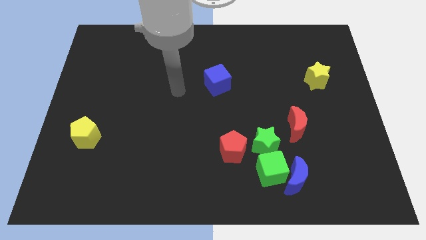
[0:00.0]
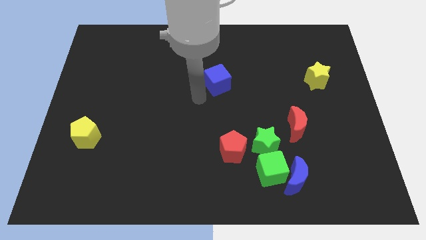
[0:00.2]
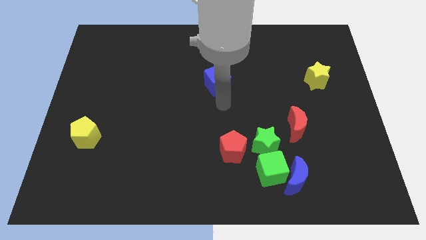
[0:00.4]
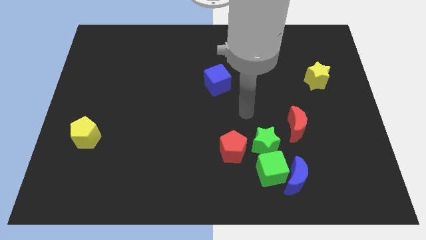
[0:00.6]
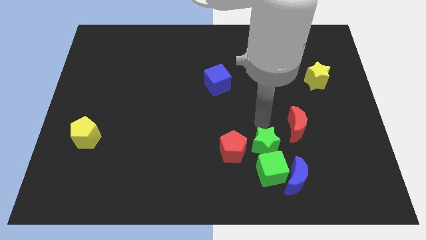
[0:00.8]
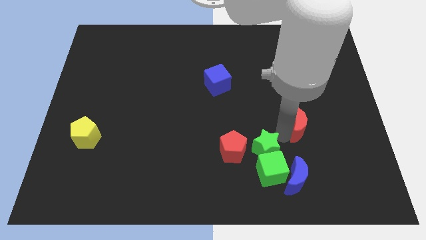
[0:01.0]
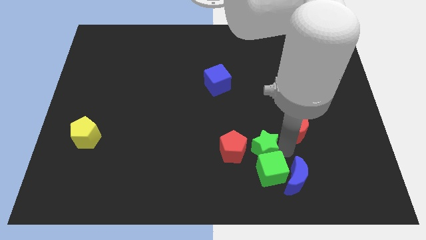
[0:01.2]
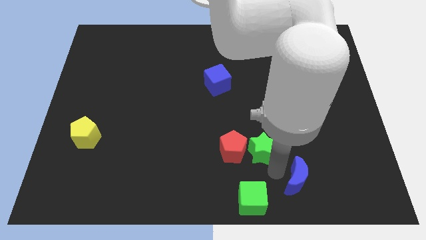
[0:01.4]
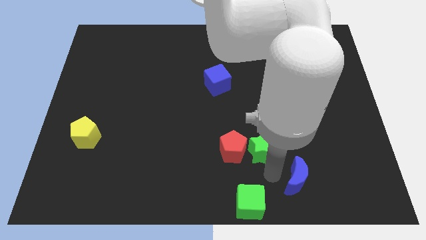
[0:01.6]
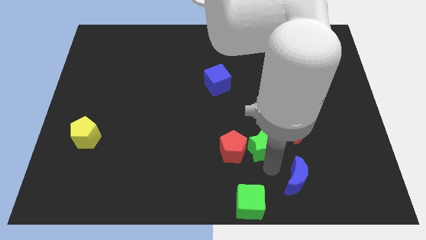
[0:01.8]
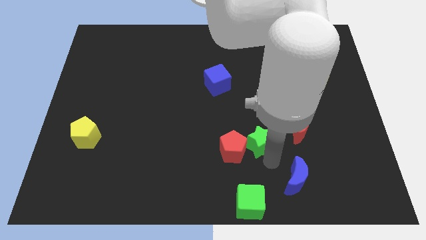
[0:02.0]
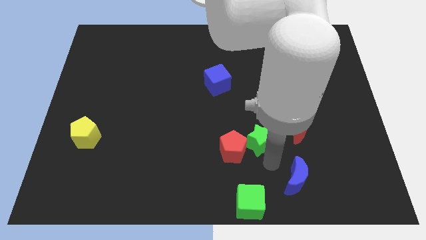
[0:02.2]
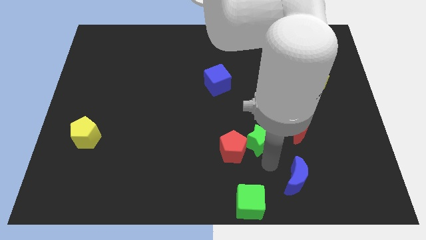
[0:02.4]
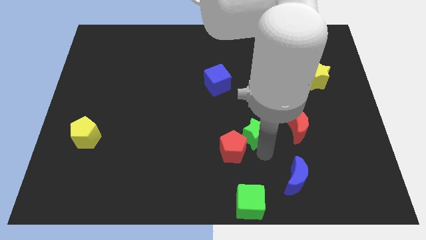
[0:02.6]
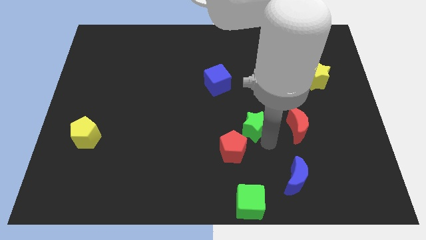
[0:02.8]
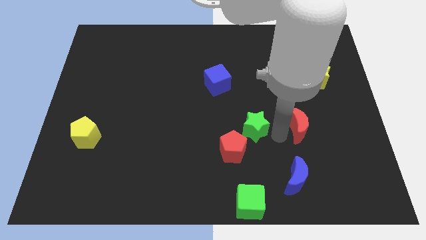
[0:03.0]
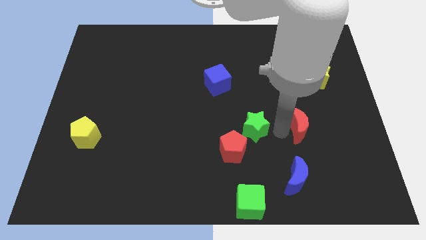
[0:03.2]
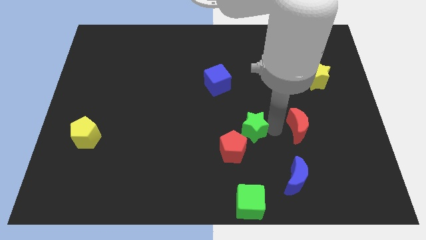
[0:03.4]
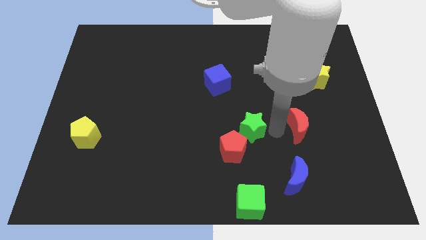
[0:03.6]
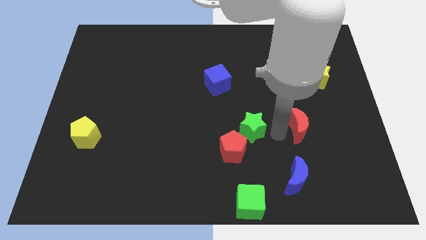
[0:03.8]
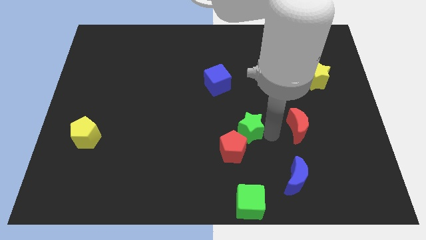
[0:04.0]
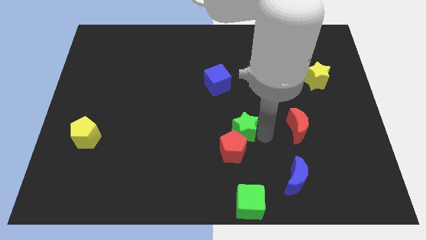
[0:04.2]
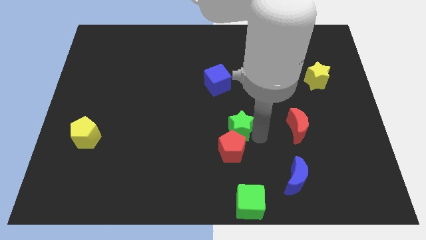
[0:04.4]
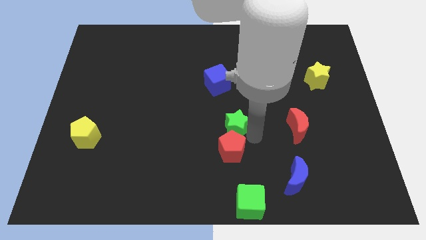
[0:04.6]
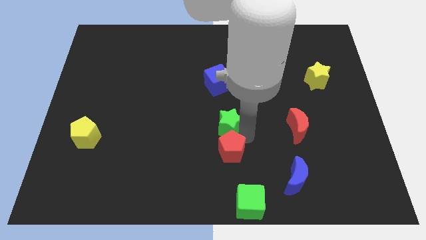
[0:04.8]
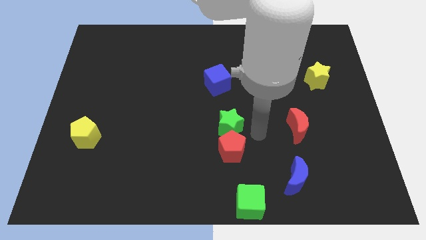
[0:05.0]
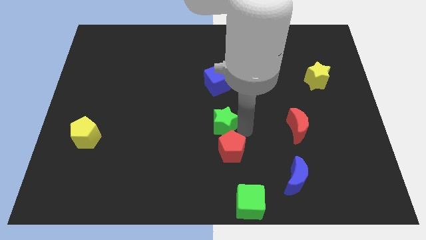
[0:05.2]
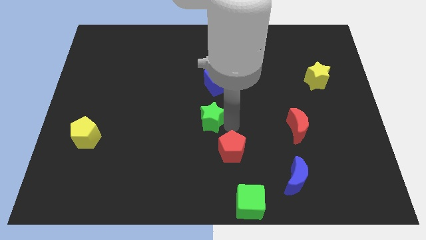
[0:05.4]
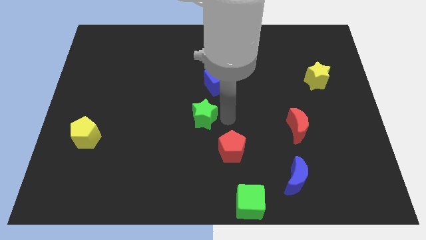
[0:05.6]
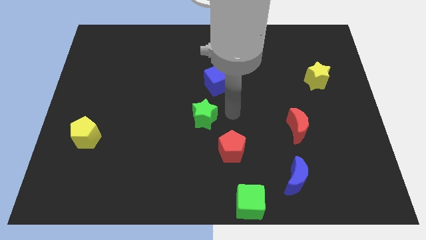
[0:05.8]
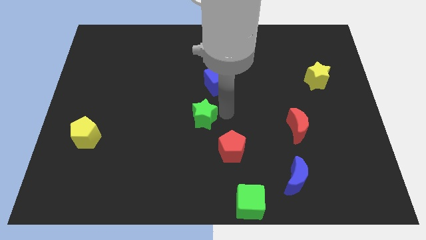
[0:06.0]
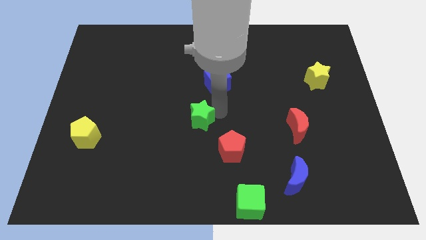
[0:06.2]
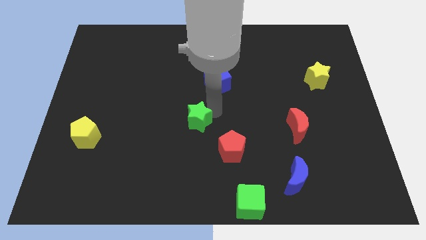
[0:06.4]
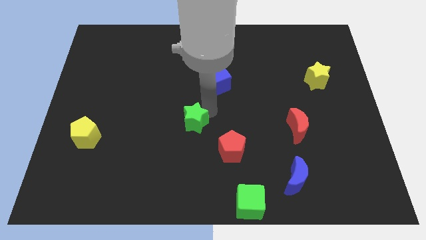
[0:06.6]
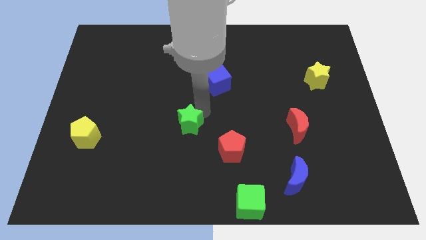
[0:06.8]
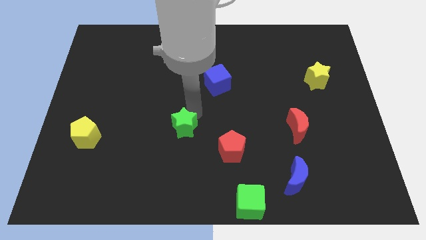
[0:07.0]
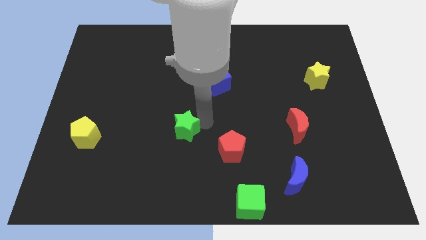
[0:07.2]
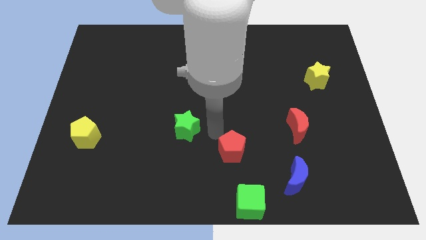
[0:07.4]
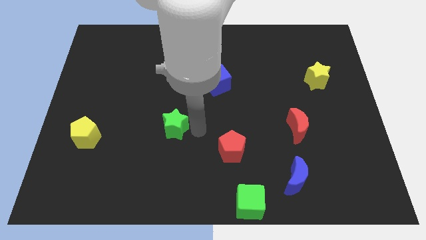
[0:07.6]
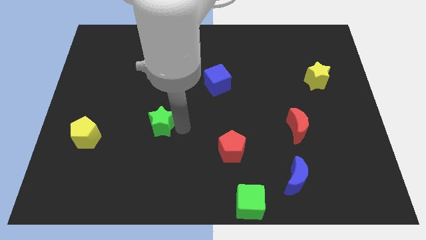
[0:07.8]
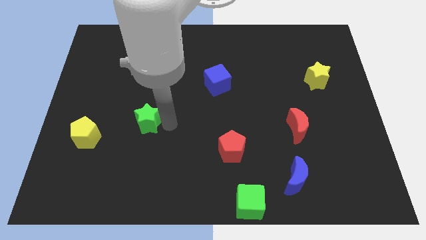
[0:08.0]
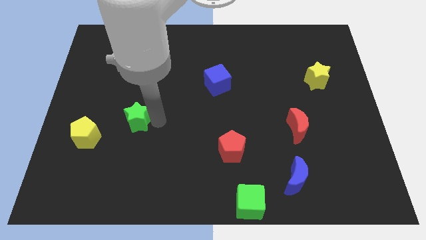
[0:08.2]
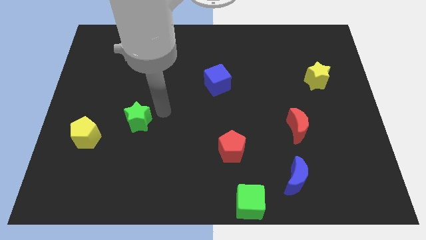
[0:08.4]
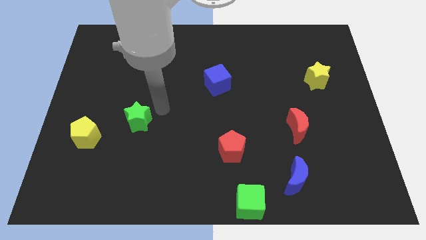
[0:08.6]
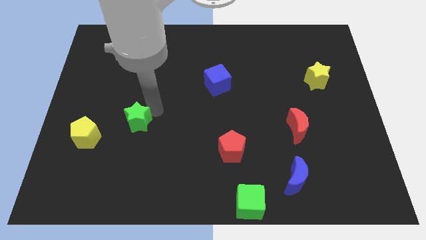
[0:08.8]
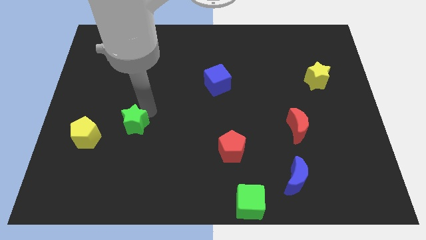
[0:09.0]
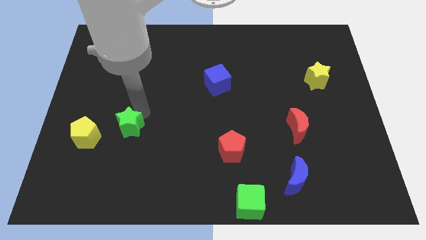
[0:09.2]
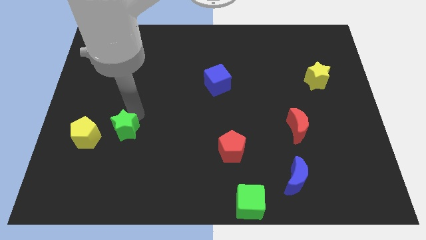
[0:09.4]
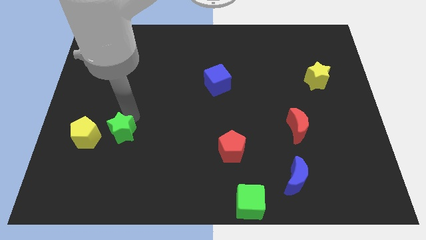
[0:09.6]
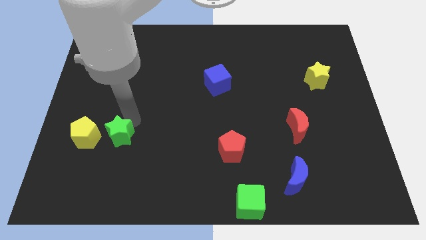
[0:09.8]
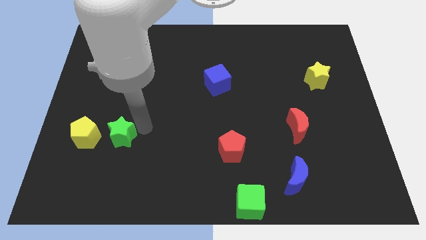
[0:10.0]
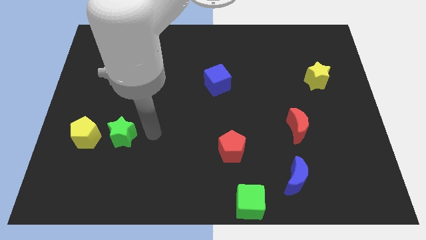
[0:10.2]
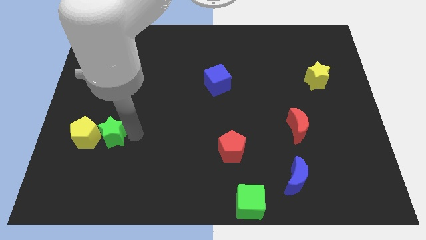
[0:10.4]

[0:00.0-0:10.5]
put the green star to the yellow pentagon

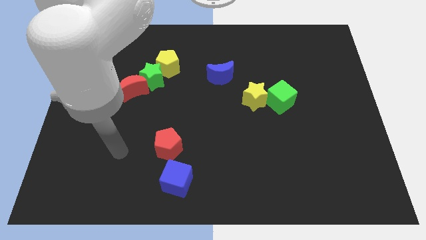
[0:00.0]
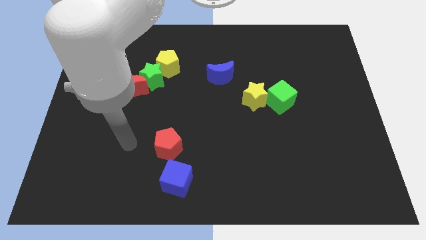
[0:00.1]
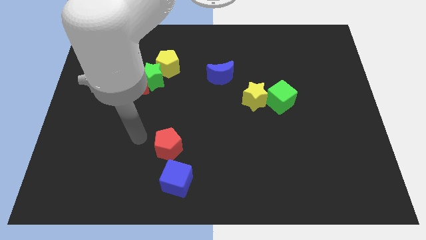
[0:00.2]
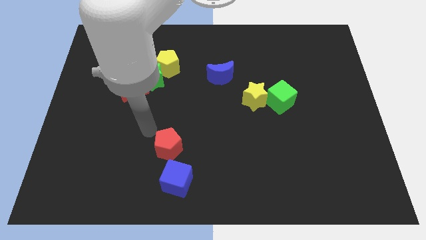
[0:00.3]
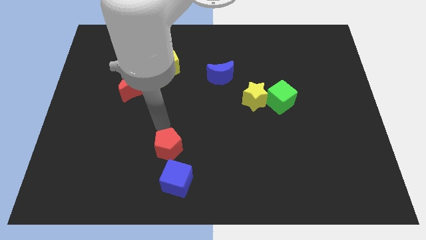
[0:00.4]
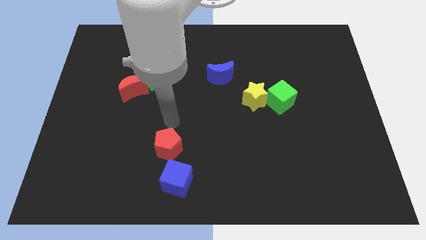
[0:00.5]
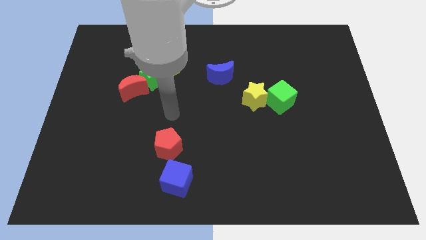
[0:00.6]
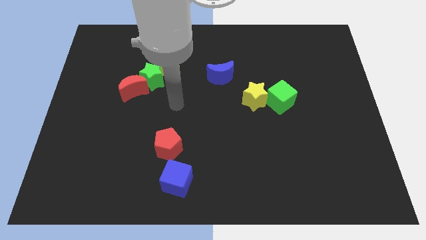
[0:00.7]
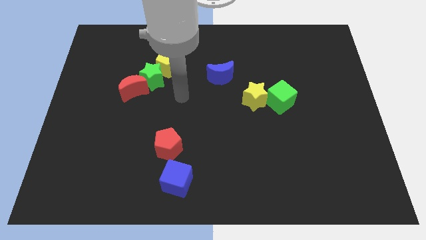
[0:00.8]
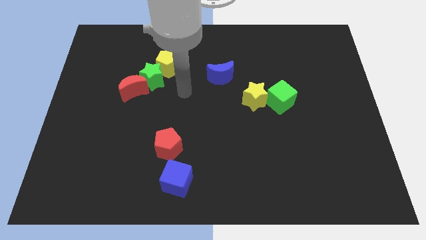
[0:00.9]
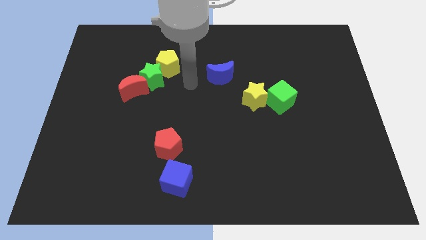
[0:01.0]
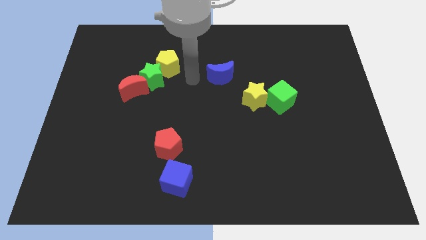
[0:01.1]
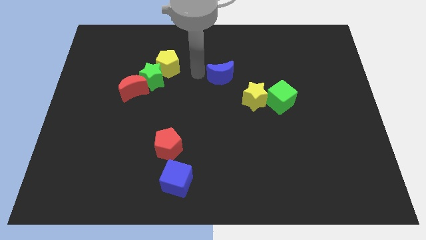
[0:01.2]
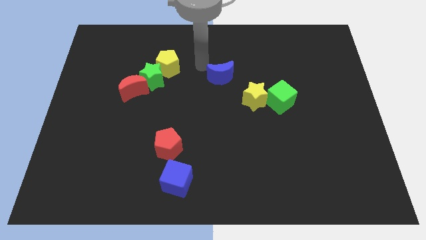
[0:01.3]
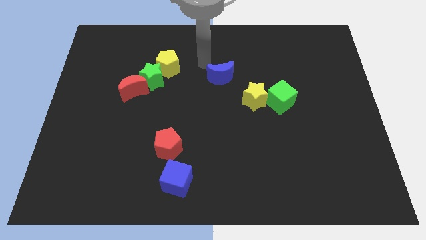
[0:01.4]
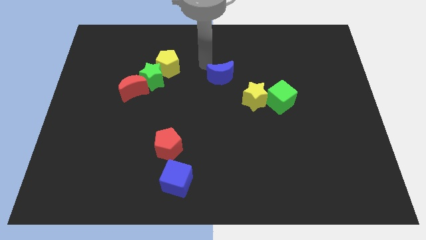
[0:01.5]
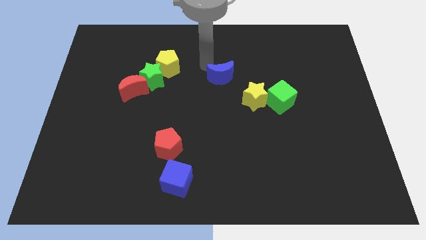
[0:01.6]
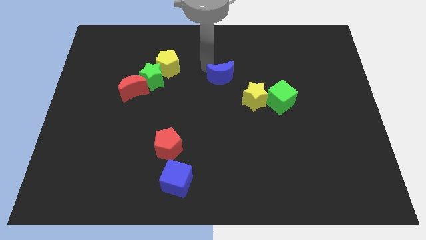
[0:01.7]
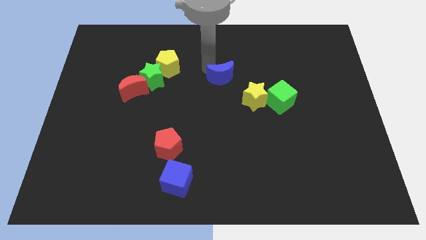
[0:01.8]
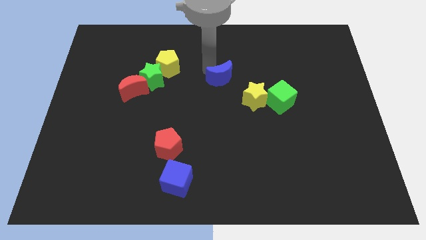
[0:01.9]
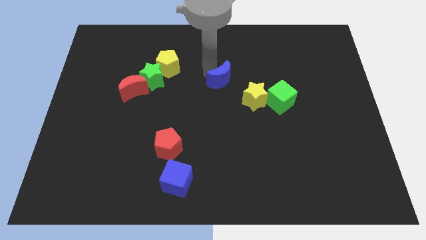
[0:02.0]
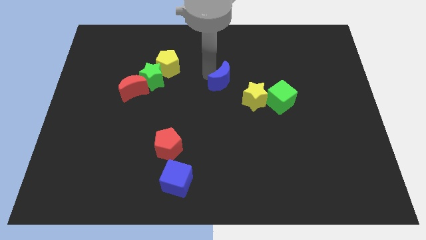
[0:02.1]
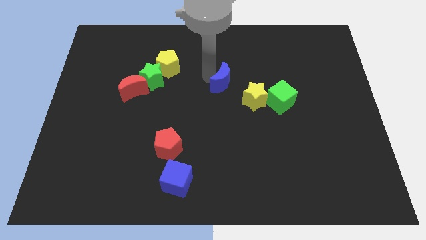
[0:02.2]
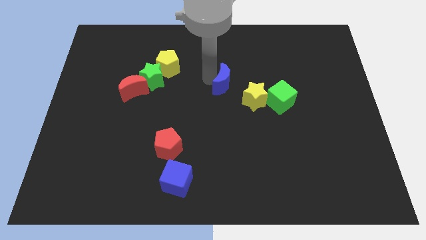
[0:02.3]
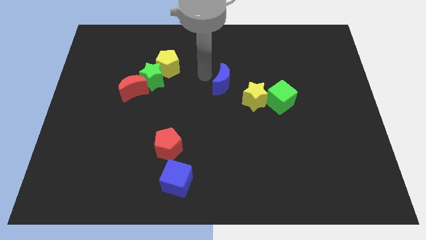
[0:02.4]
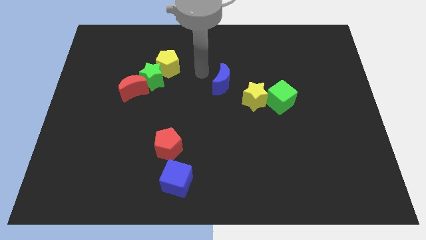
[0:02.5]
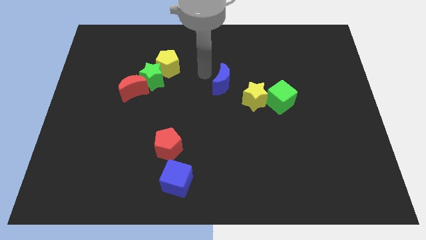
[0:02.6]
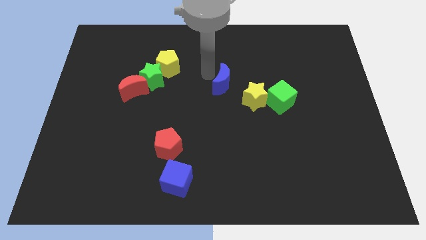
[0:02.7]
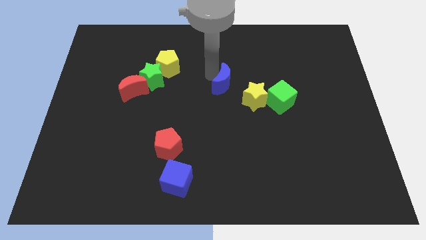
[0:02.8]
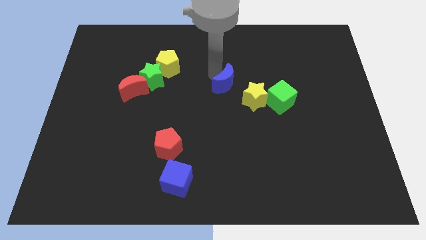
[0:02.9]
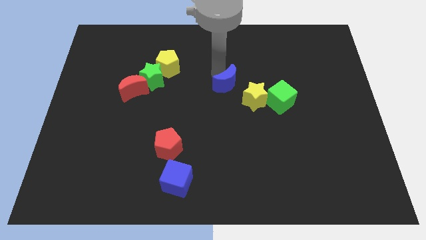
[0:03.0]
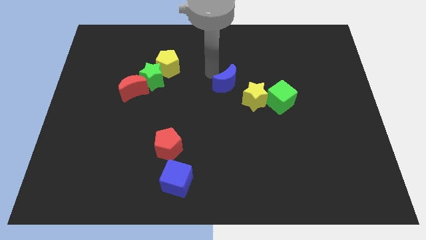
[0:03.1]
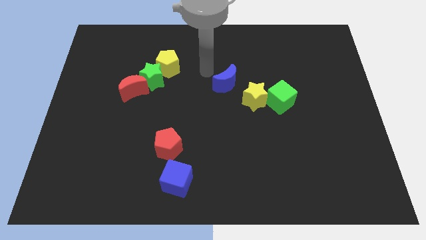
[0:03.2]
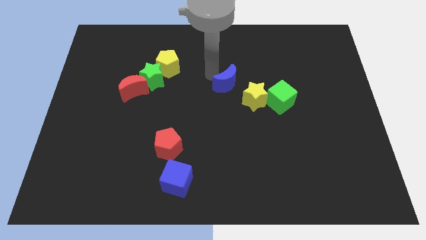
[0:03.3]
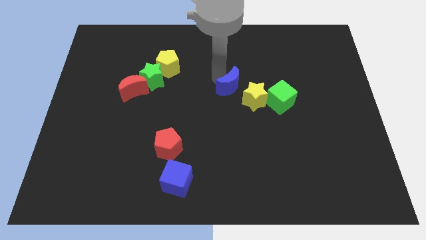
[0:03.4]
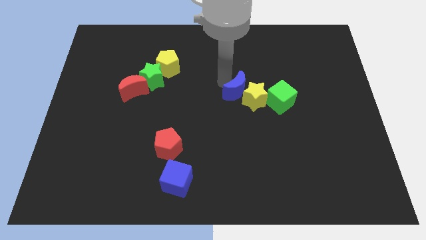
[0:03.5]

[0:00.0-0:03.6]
push the blue moon towards the yellow star
